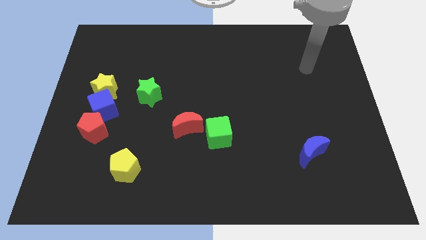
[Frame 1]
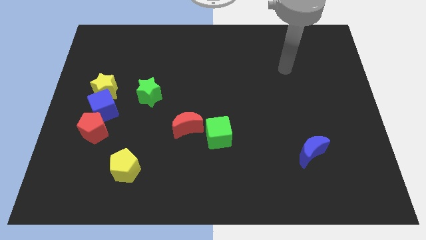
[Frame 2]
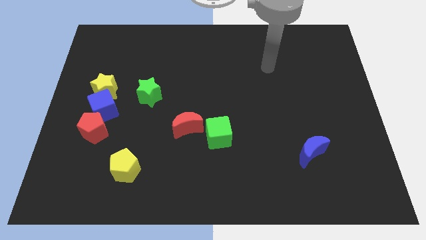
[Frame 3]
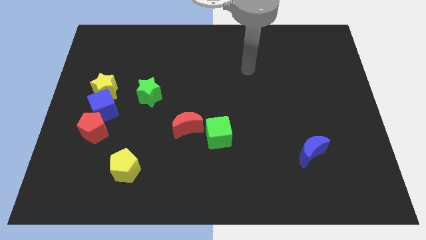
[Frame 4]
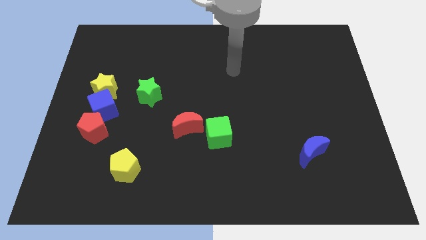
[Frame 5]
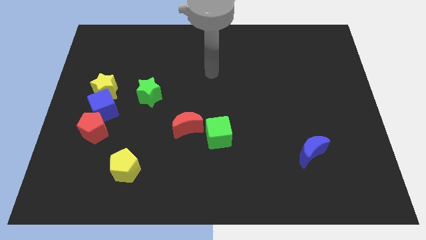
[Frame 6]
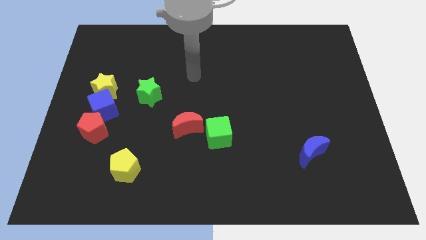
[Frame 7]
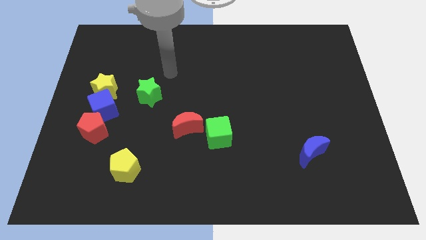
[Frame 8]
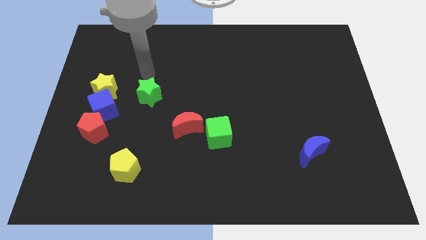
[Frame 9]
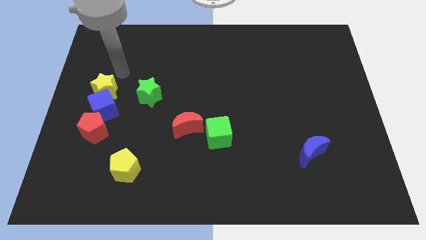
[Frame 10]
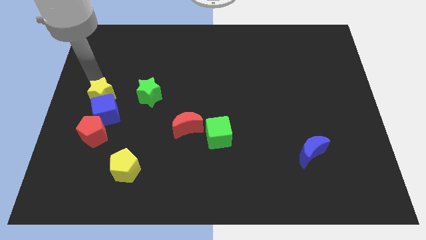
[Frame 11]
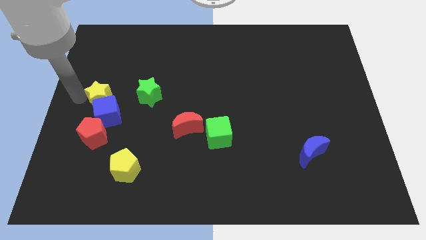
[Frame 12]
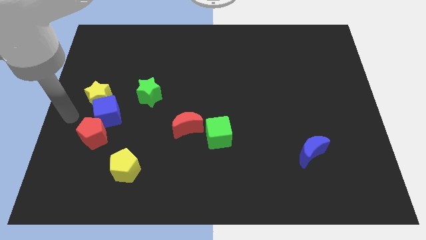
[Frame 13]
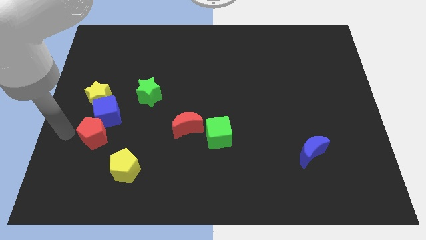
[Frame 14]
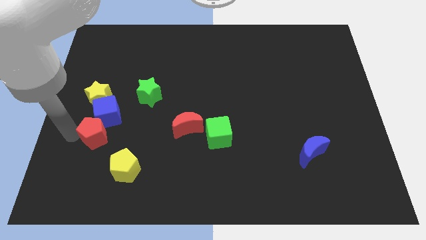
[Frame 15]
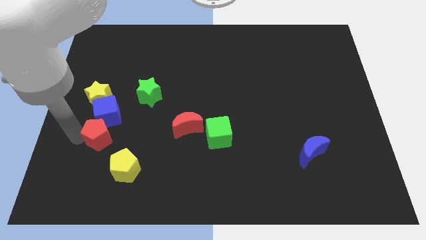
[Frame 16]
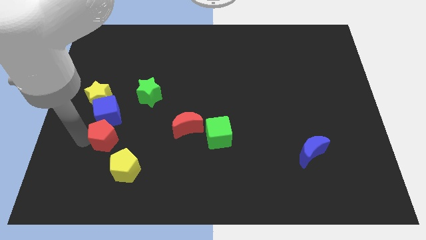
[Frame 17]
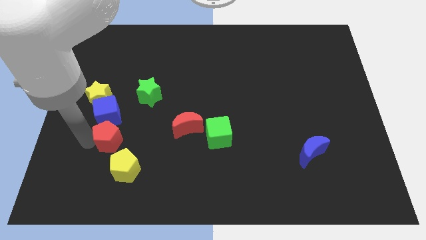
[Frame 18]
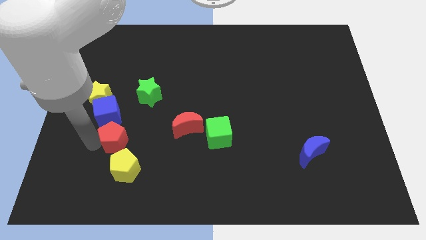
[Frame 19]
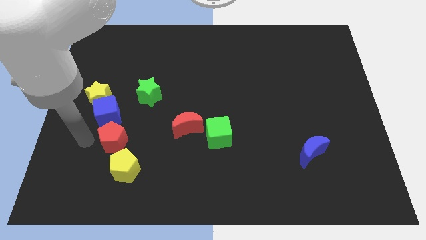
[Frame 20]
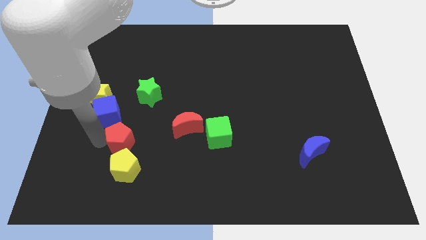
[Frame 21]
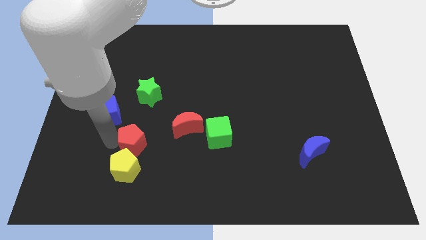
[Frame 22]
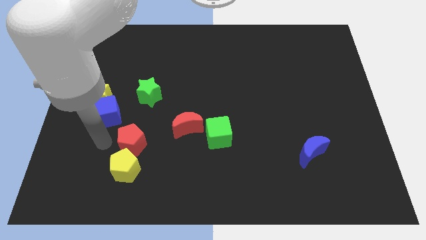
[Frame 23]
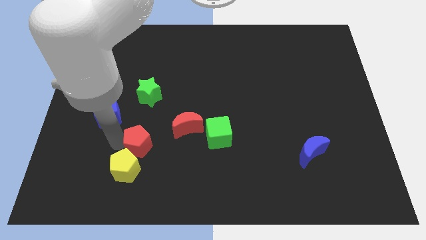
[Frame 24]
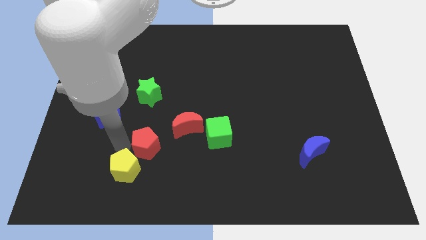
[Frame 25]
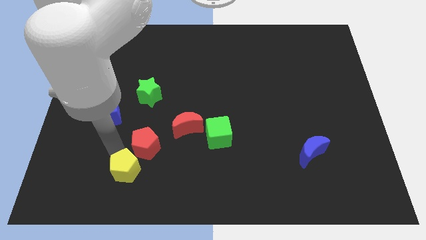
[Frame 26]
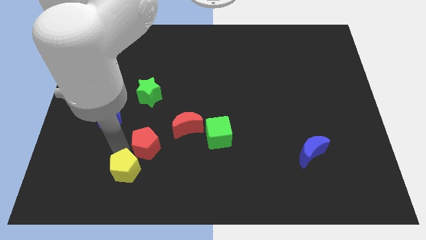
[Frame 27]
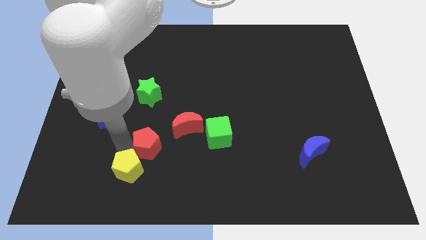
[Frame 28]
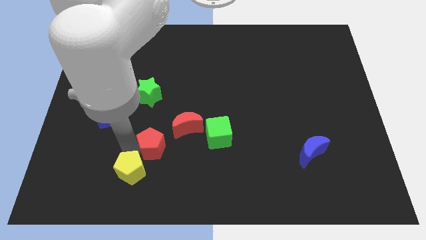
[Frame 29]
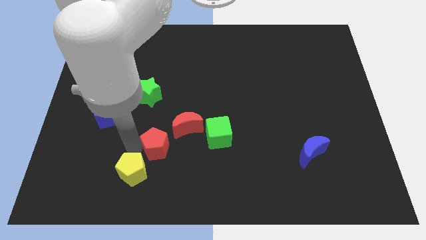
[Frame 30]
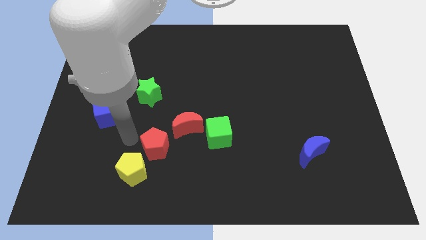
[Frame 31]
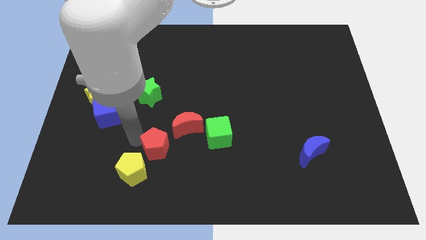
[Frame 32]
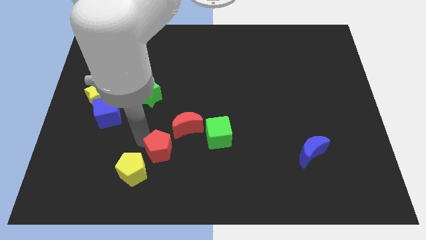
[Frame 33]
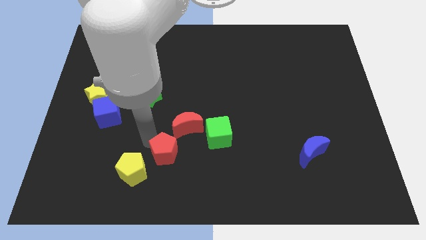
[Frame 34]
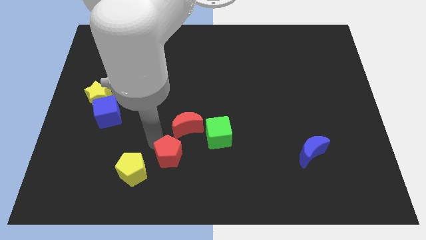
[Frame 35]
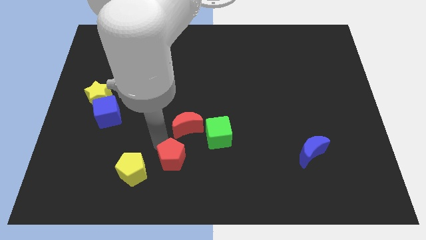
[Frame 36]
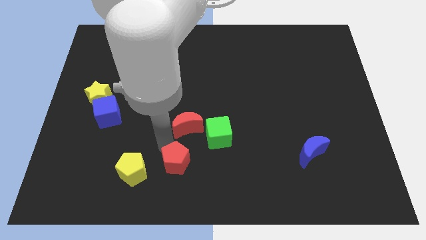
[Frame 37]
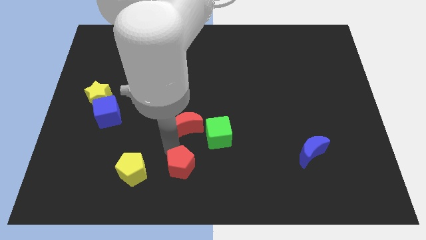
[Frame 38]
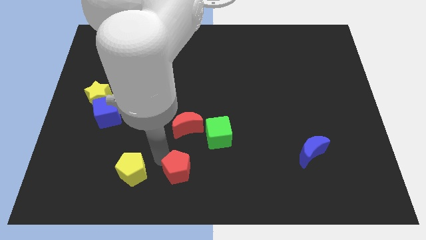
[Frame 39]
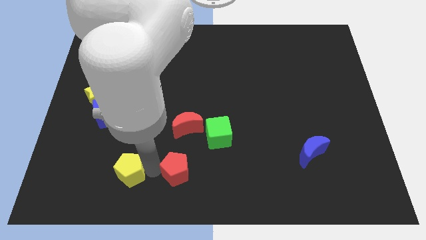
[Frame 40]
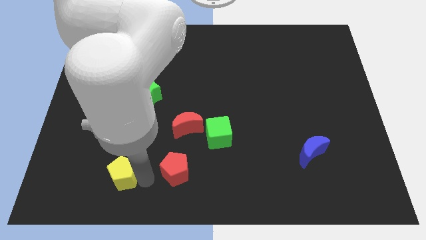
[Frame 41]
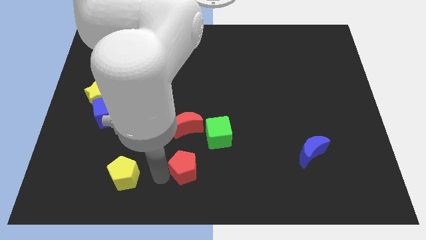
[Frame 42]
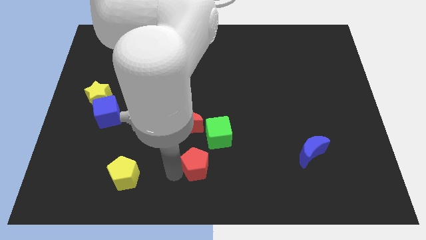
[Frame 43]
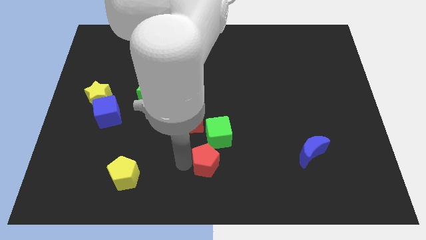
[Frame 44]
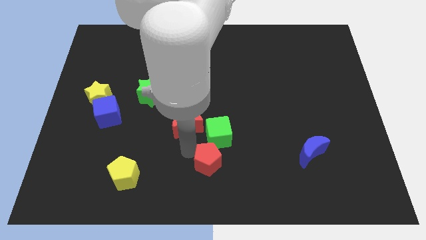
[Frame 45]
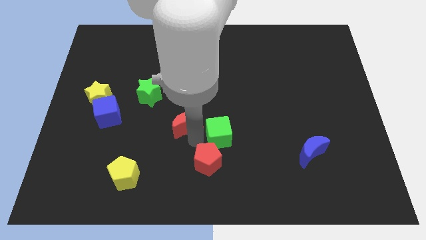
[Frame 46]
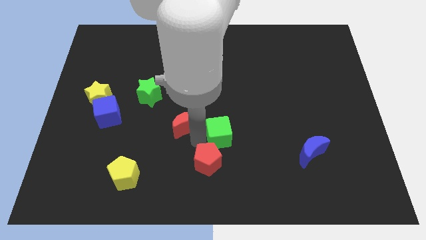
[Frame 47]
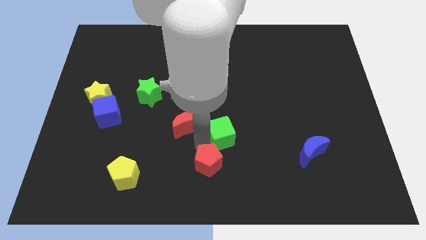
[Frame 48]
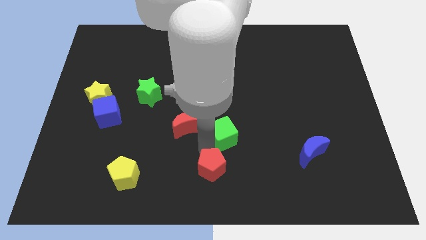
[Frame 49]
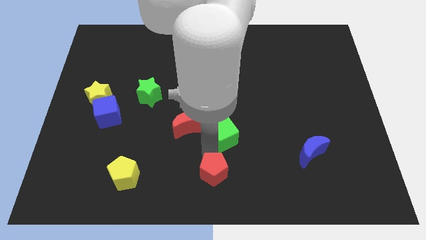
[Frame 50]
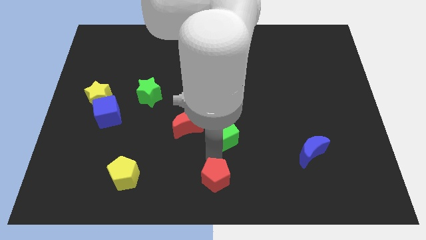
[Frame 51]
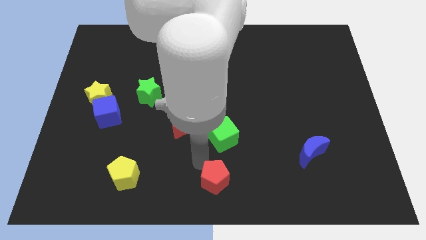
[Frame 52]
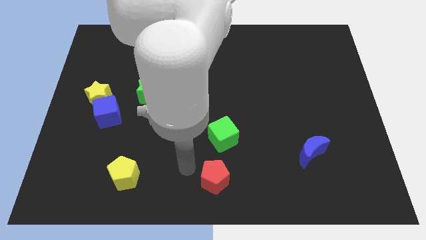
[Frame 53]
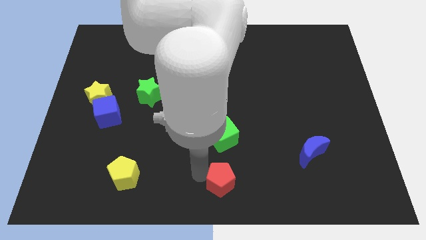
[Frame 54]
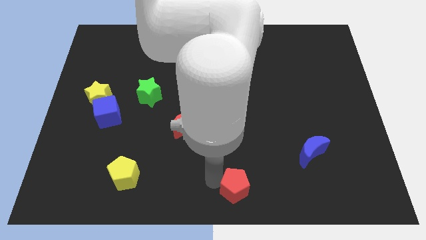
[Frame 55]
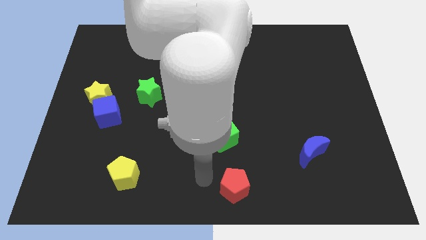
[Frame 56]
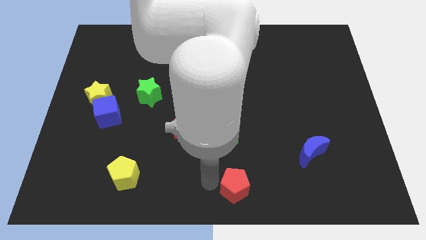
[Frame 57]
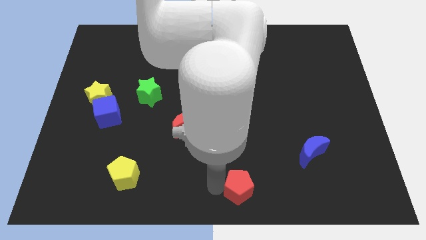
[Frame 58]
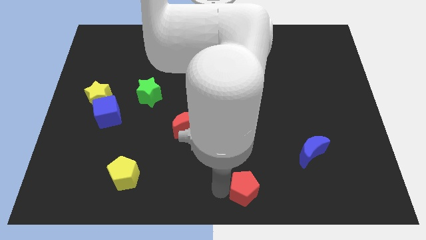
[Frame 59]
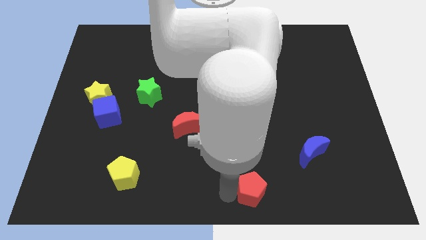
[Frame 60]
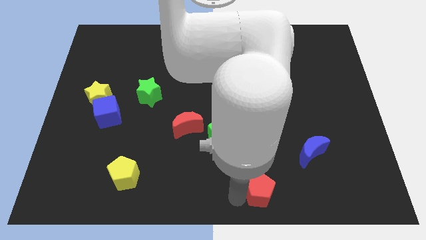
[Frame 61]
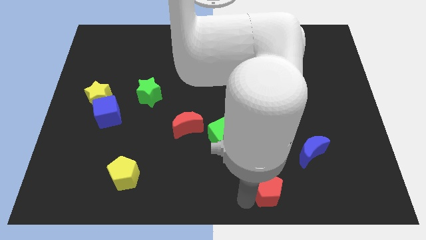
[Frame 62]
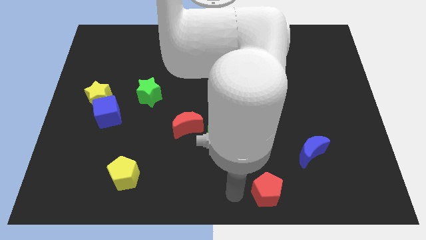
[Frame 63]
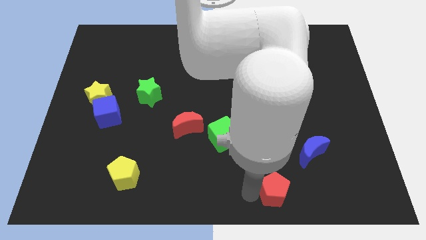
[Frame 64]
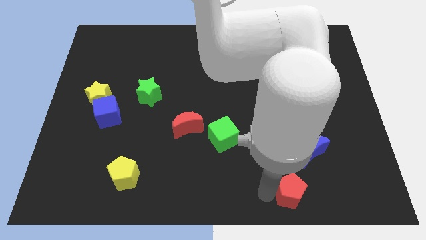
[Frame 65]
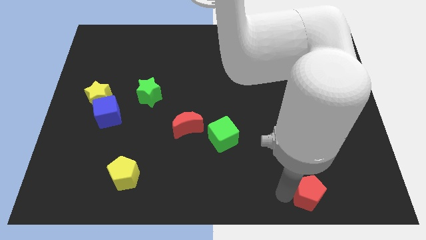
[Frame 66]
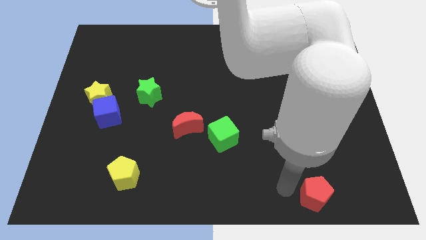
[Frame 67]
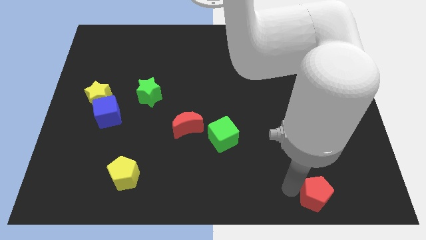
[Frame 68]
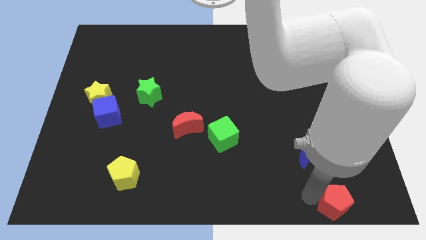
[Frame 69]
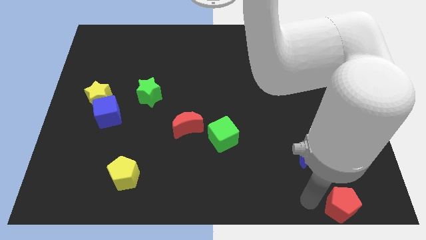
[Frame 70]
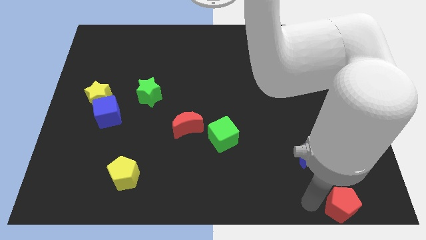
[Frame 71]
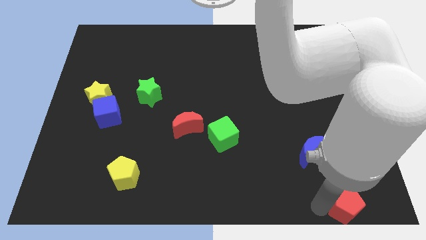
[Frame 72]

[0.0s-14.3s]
move the red pentagon to the bottom right
